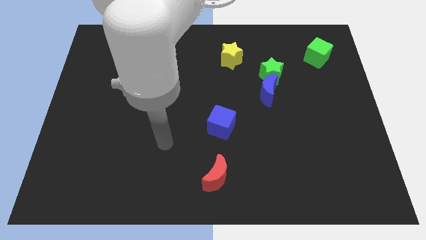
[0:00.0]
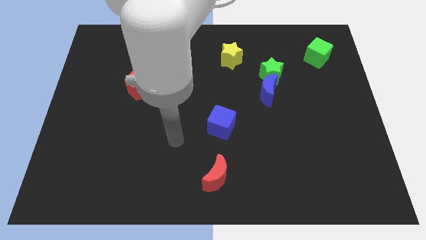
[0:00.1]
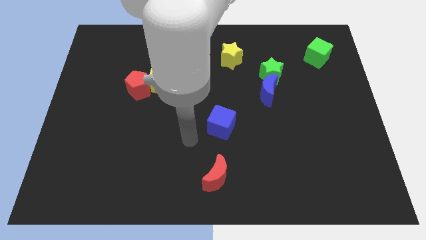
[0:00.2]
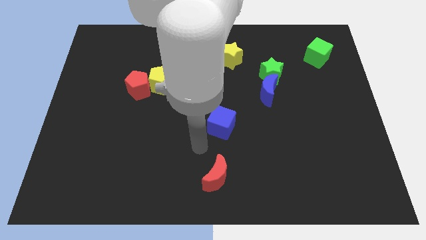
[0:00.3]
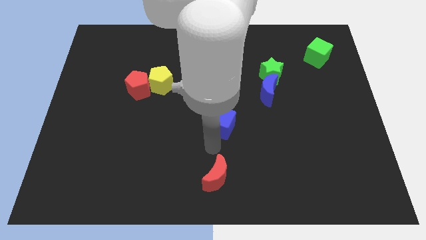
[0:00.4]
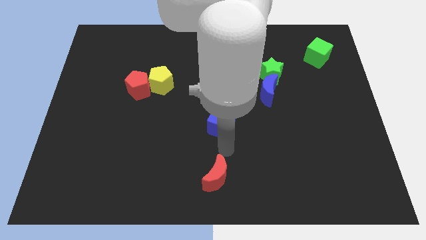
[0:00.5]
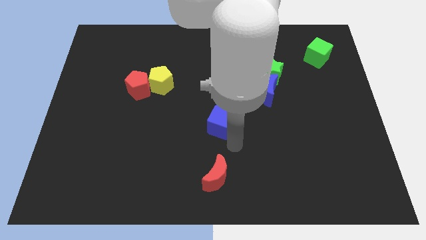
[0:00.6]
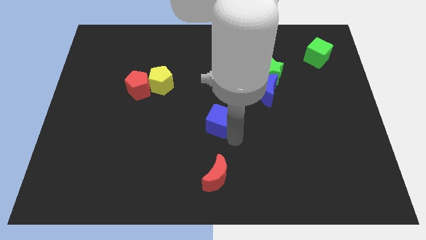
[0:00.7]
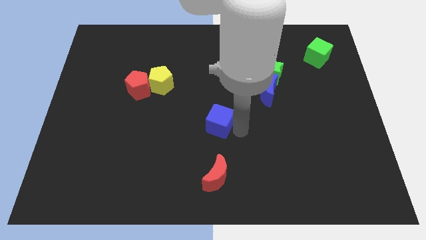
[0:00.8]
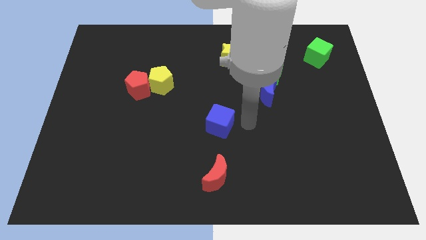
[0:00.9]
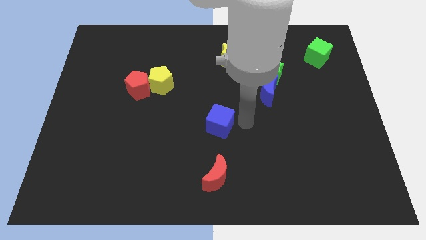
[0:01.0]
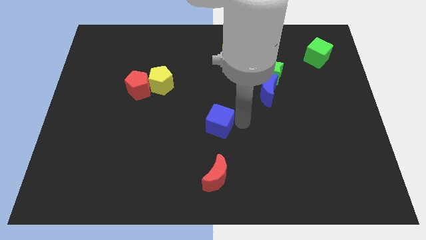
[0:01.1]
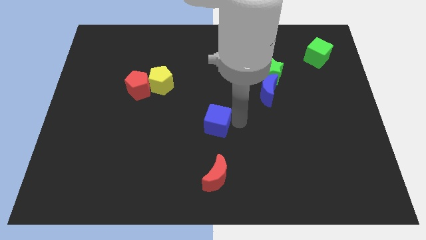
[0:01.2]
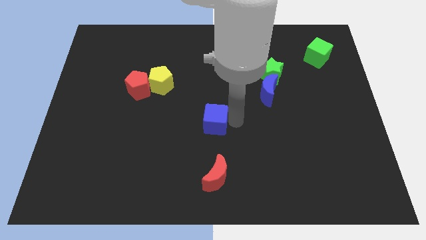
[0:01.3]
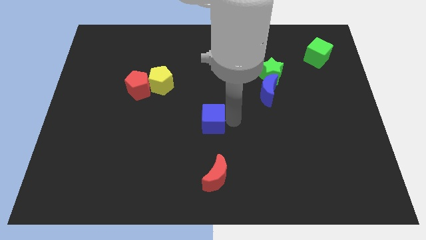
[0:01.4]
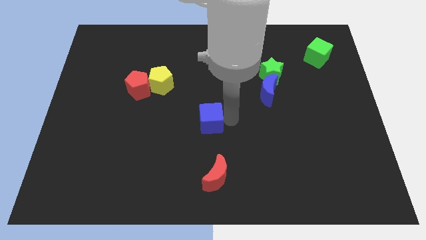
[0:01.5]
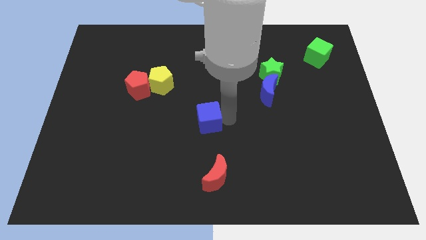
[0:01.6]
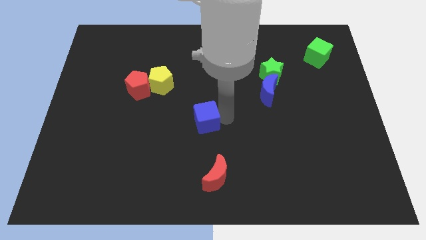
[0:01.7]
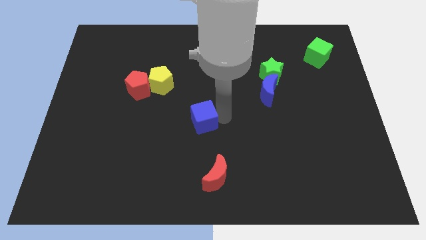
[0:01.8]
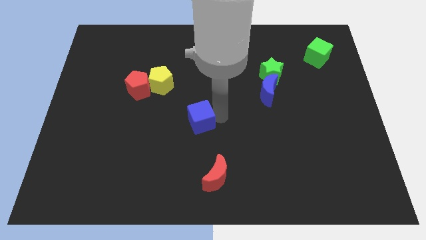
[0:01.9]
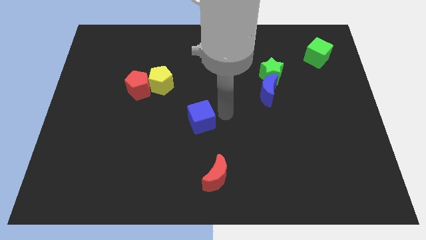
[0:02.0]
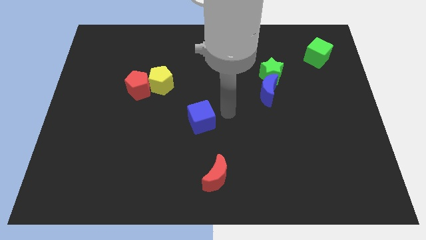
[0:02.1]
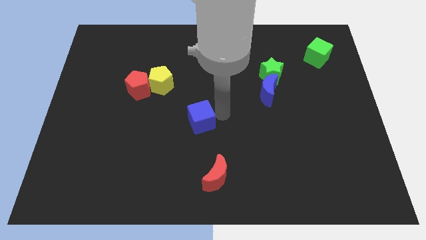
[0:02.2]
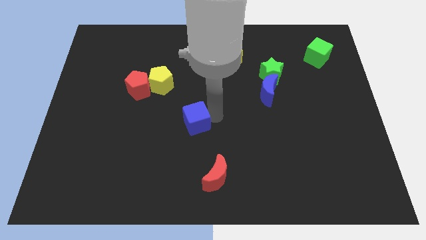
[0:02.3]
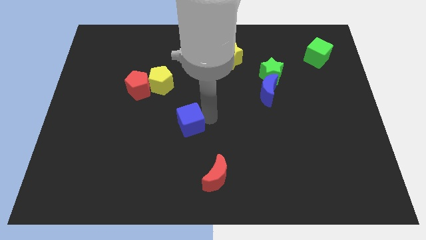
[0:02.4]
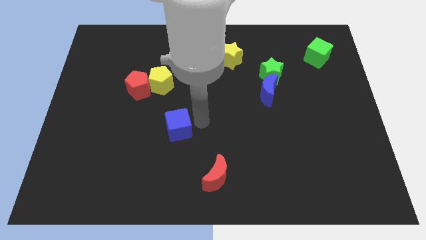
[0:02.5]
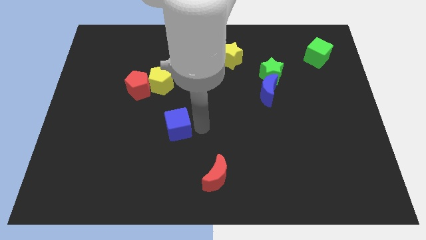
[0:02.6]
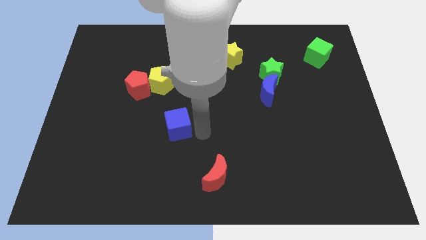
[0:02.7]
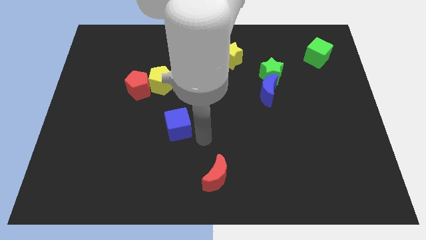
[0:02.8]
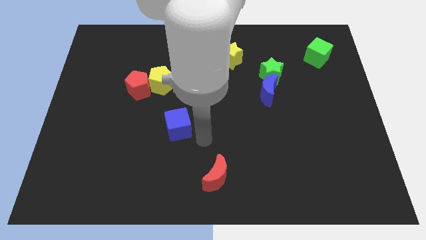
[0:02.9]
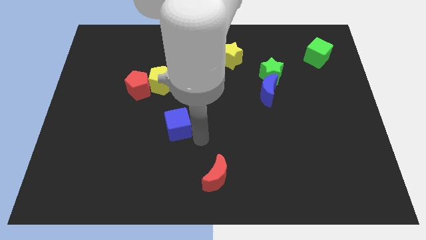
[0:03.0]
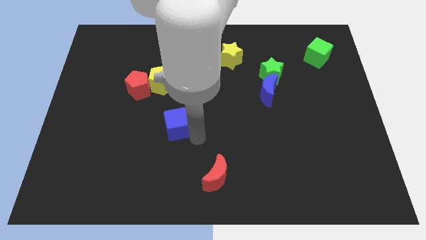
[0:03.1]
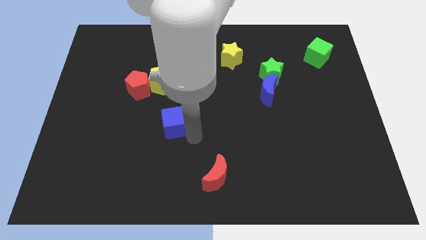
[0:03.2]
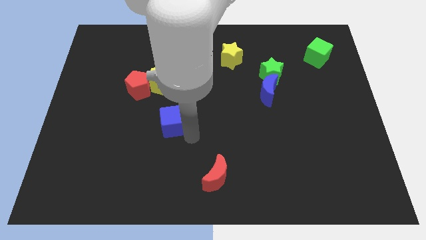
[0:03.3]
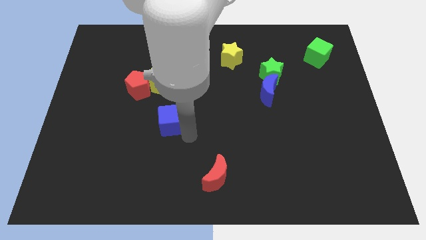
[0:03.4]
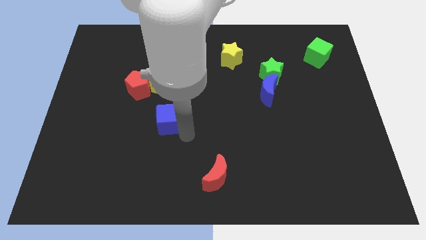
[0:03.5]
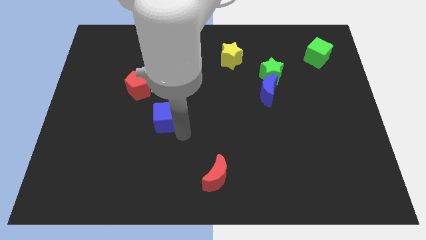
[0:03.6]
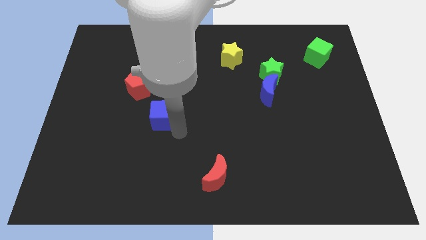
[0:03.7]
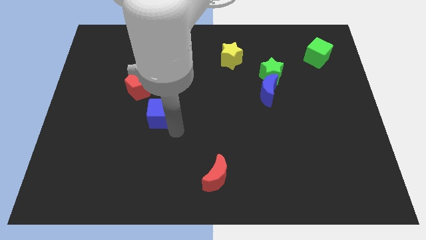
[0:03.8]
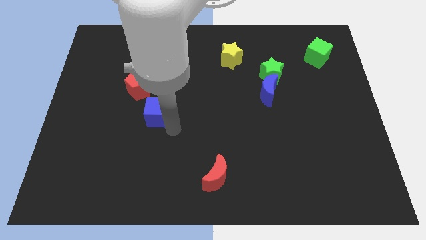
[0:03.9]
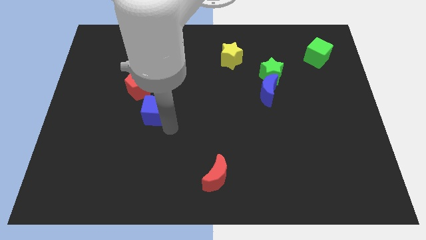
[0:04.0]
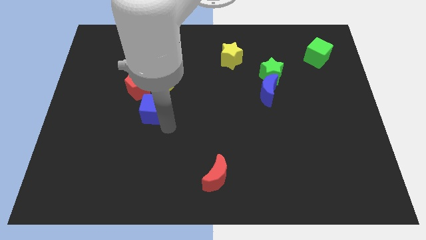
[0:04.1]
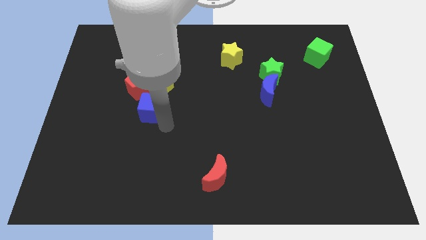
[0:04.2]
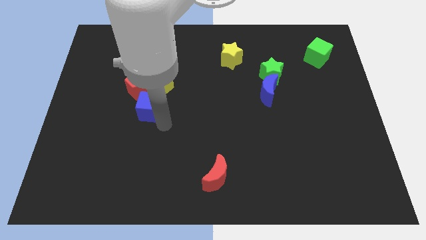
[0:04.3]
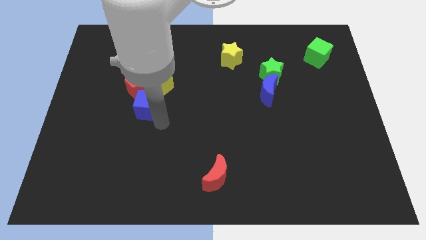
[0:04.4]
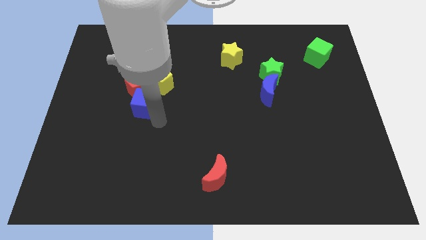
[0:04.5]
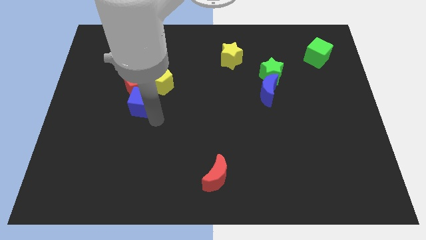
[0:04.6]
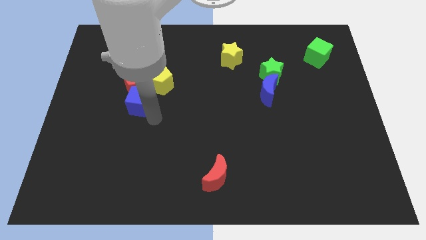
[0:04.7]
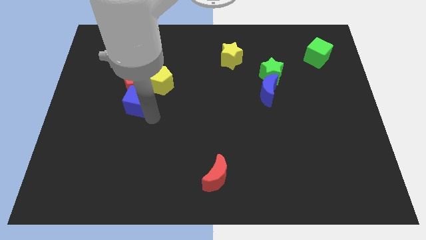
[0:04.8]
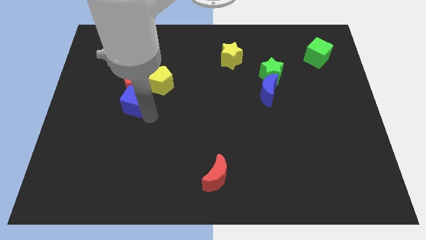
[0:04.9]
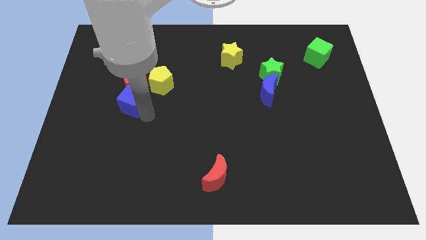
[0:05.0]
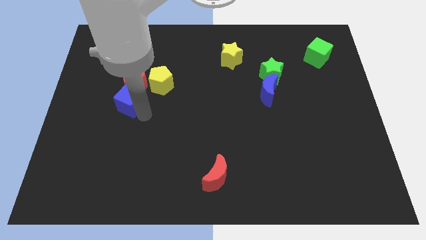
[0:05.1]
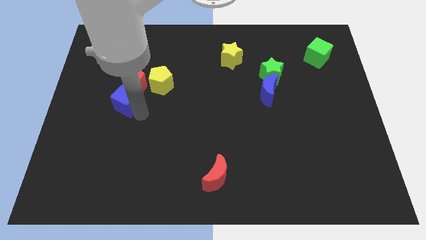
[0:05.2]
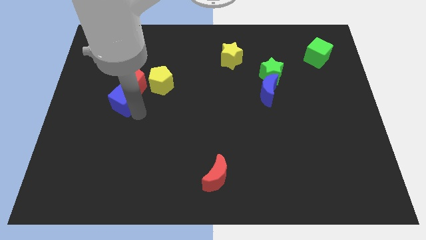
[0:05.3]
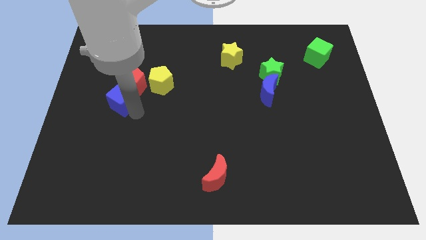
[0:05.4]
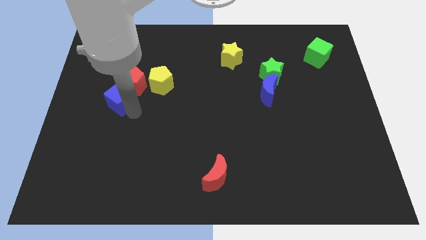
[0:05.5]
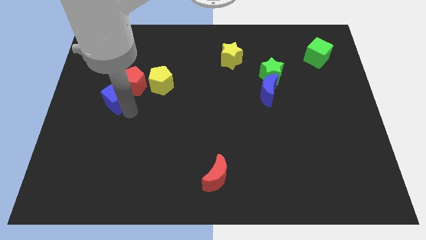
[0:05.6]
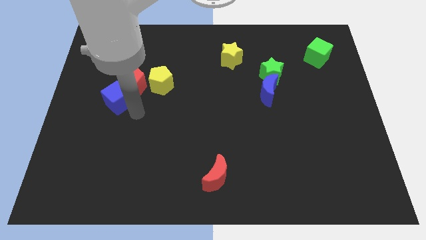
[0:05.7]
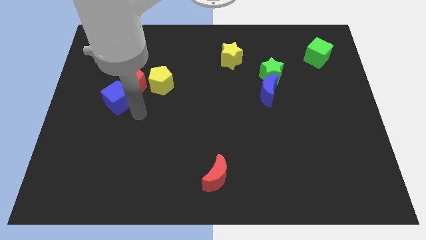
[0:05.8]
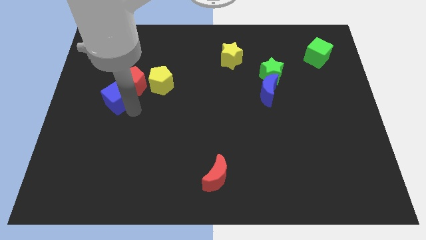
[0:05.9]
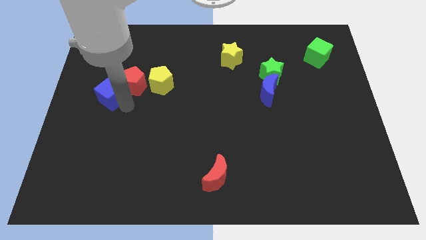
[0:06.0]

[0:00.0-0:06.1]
push the blue cube just left of the red pentagon
